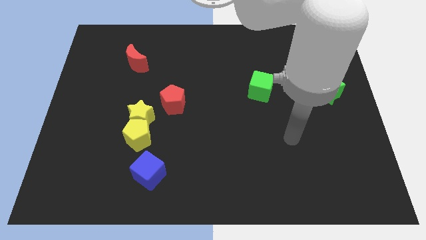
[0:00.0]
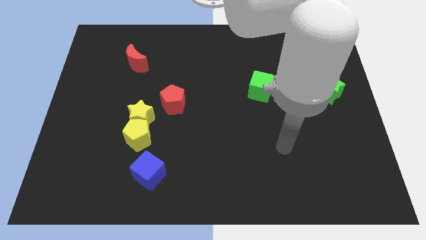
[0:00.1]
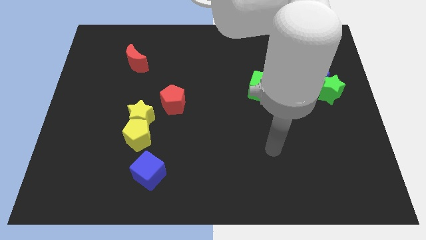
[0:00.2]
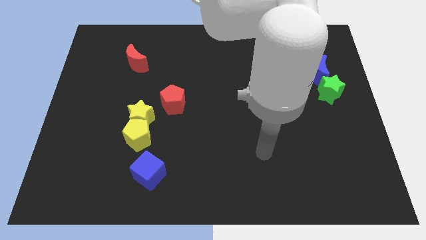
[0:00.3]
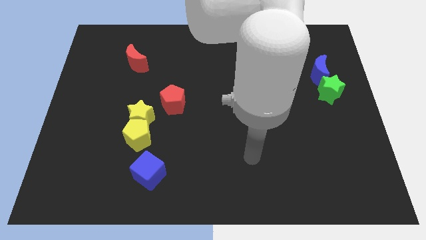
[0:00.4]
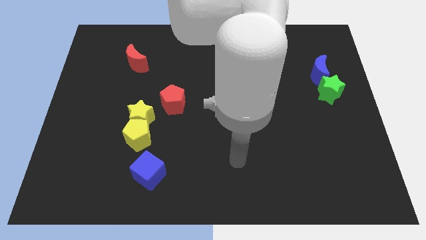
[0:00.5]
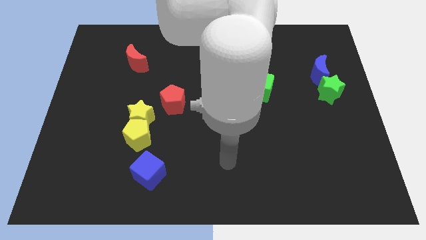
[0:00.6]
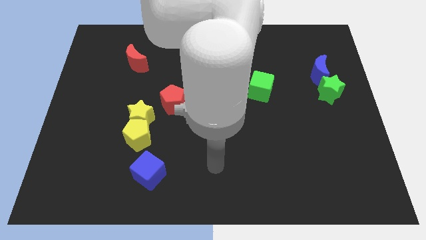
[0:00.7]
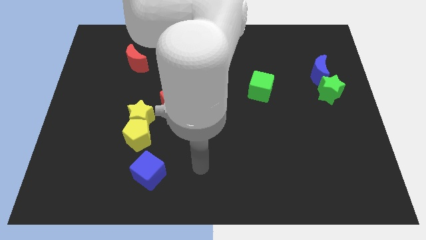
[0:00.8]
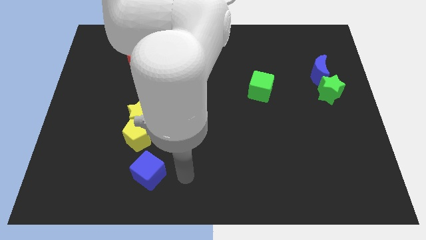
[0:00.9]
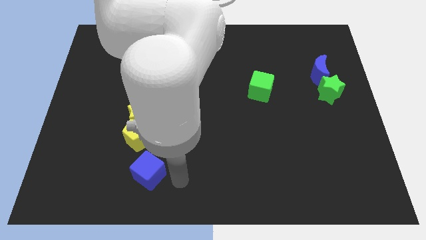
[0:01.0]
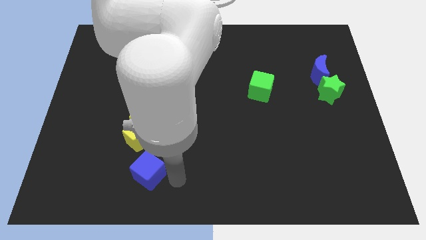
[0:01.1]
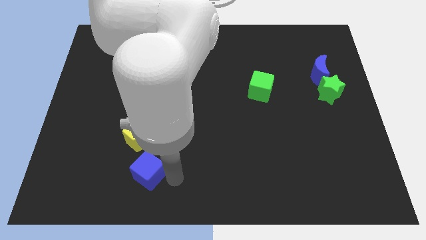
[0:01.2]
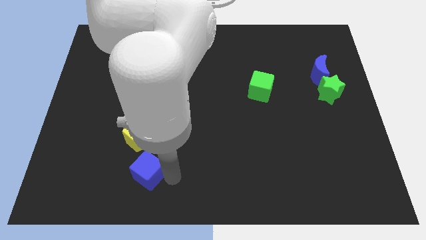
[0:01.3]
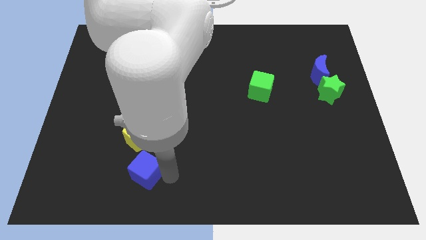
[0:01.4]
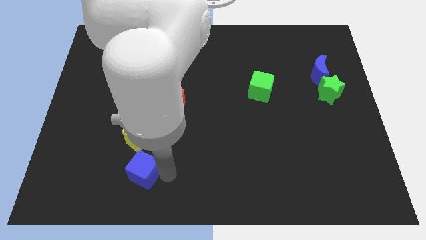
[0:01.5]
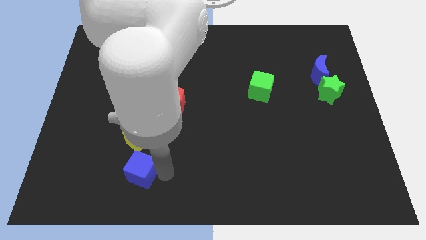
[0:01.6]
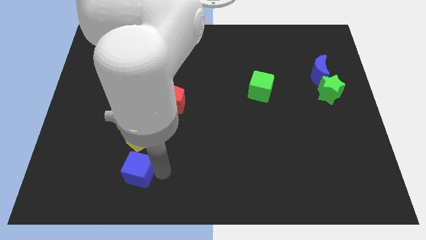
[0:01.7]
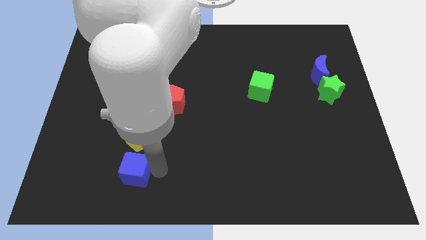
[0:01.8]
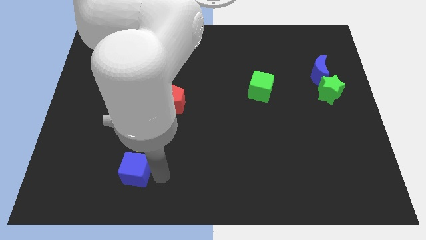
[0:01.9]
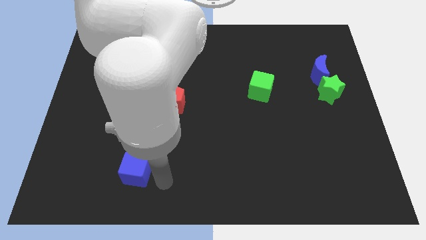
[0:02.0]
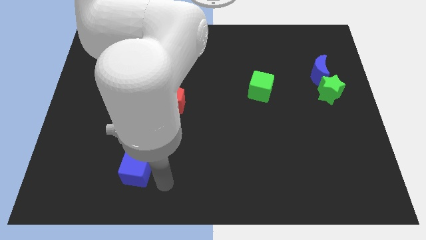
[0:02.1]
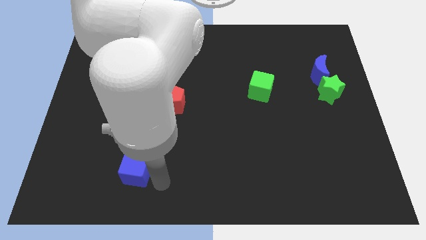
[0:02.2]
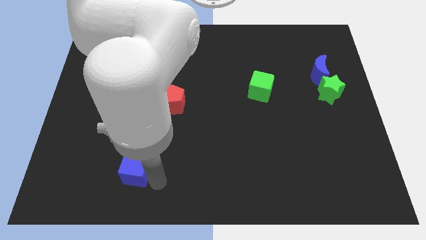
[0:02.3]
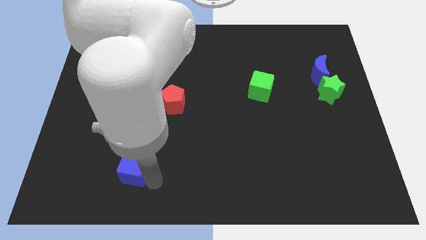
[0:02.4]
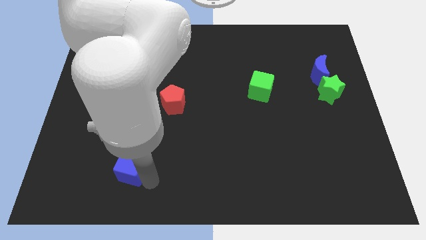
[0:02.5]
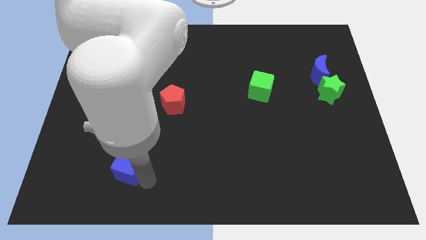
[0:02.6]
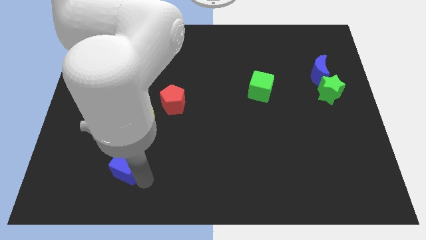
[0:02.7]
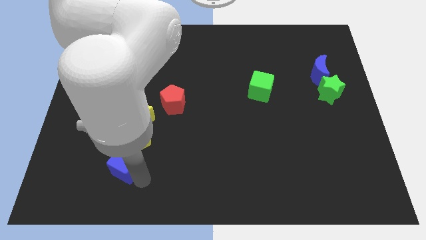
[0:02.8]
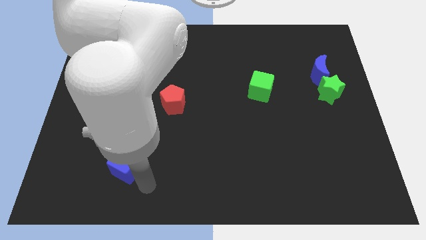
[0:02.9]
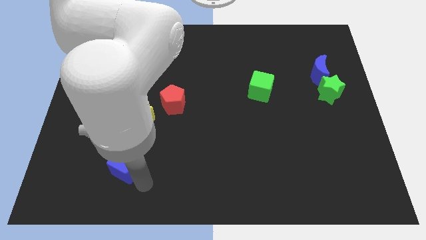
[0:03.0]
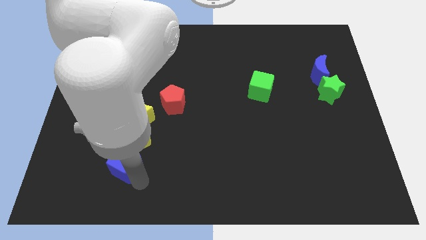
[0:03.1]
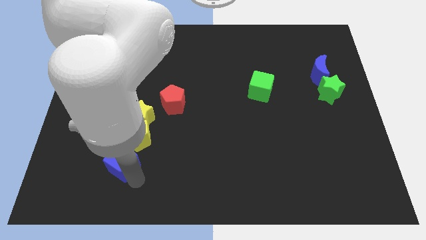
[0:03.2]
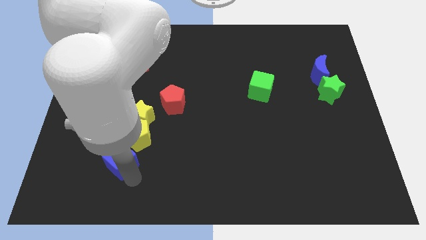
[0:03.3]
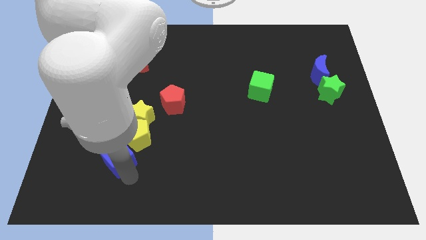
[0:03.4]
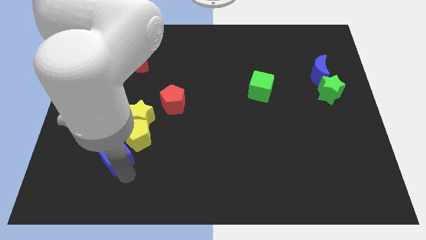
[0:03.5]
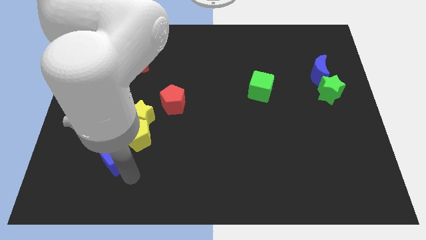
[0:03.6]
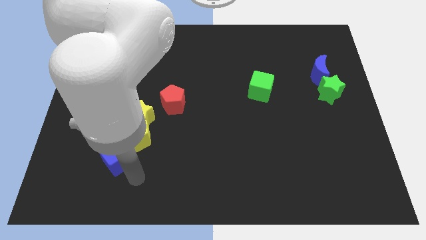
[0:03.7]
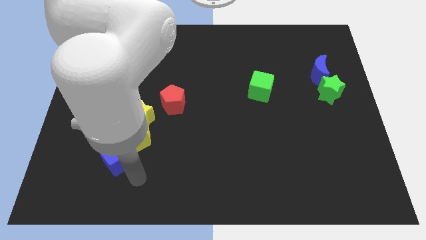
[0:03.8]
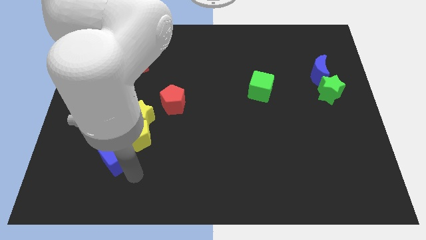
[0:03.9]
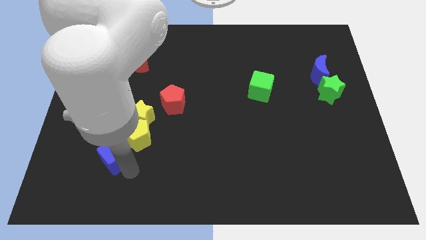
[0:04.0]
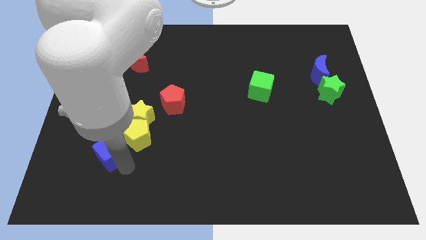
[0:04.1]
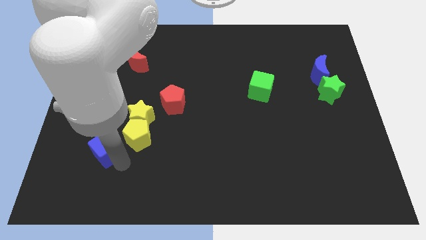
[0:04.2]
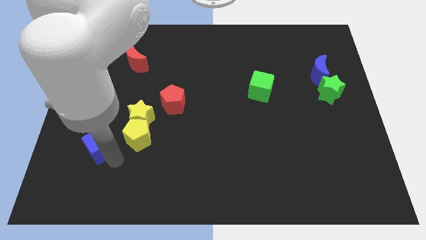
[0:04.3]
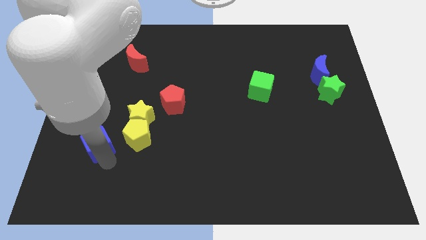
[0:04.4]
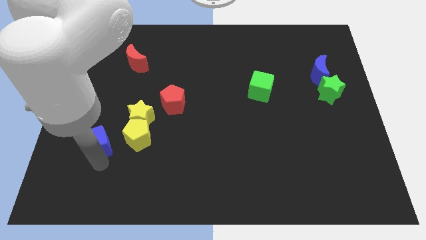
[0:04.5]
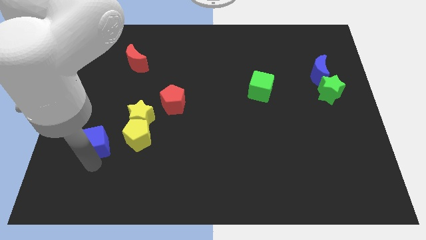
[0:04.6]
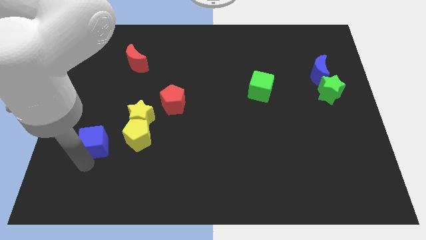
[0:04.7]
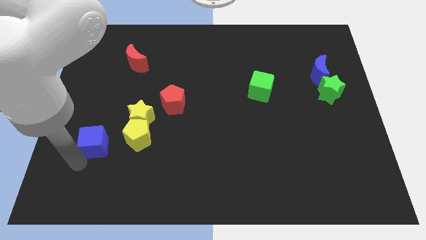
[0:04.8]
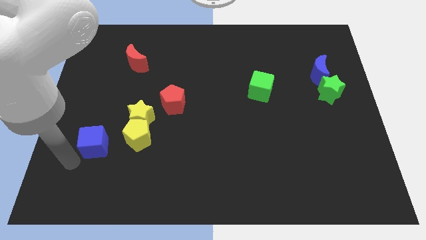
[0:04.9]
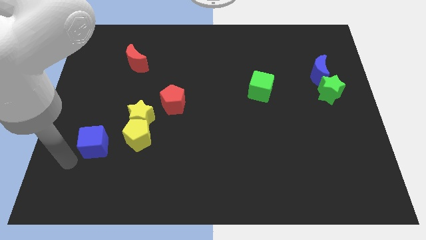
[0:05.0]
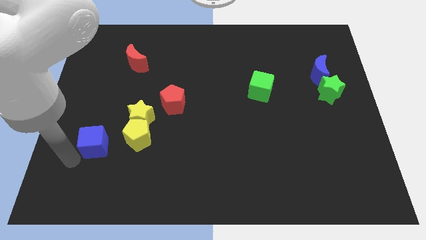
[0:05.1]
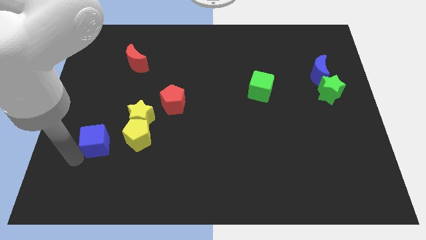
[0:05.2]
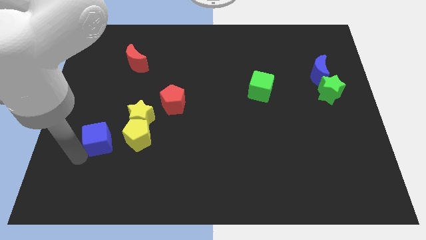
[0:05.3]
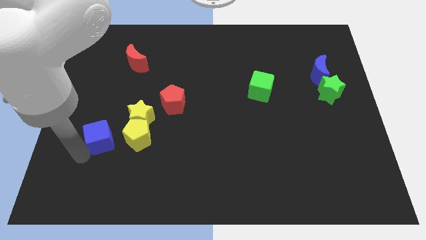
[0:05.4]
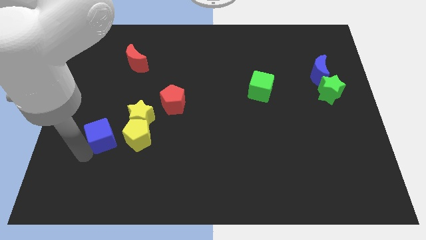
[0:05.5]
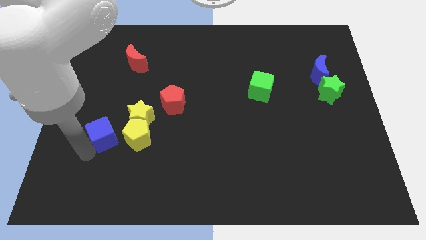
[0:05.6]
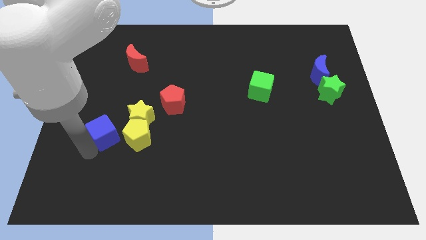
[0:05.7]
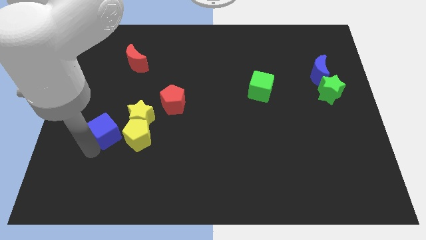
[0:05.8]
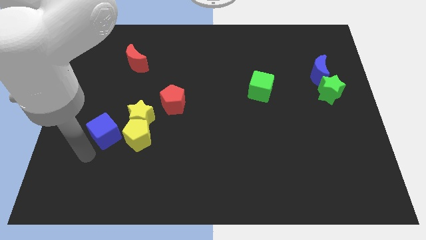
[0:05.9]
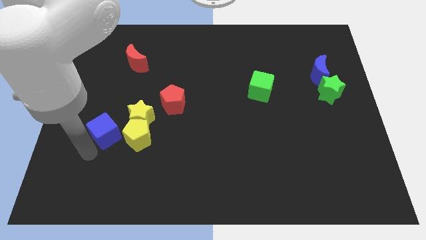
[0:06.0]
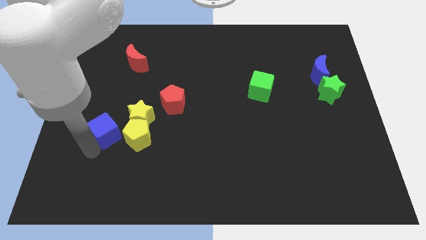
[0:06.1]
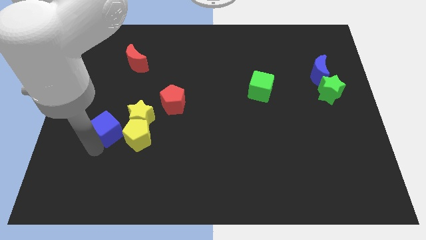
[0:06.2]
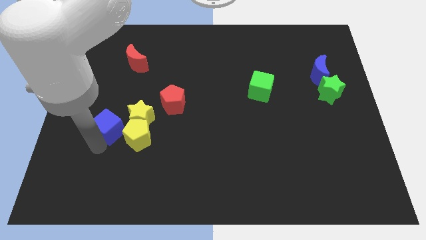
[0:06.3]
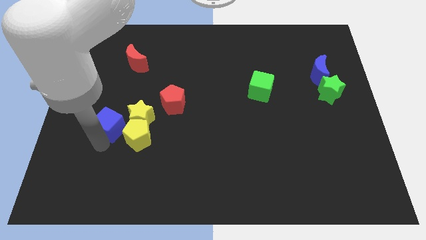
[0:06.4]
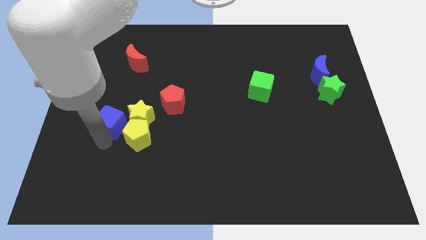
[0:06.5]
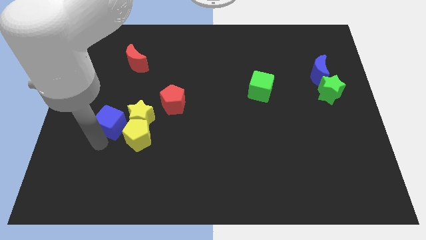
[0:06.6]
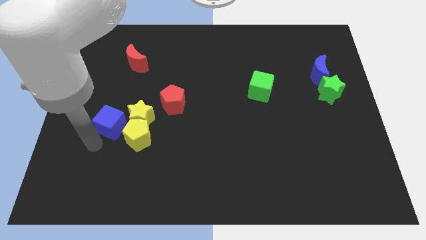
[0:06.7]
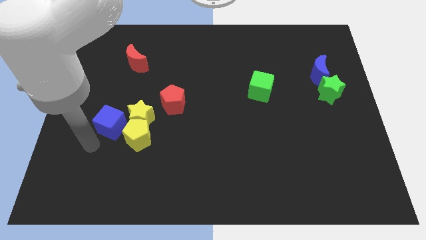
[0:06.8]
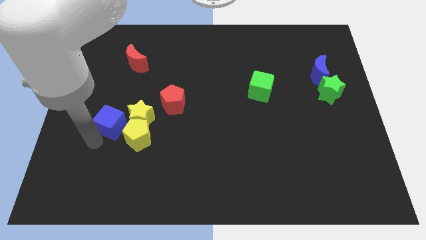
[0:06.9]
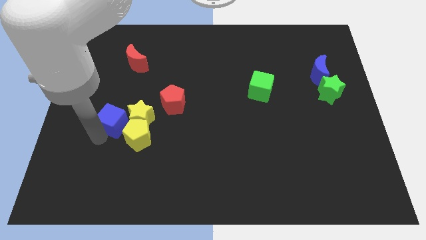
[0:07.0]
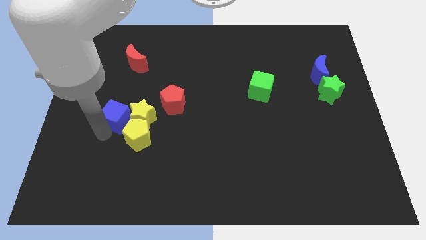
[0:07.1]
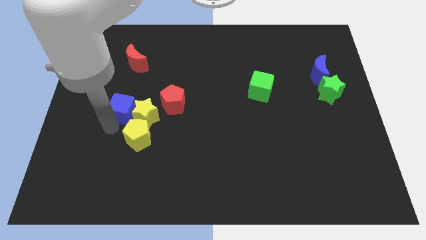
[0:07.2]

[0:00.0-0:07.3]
push the blue cube to the bottom side of the red moon
